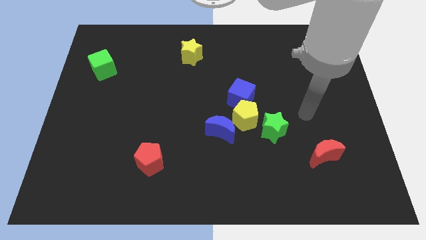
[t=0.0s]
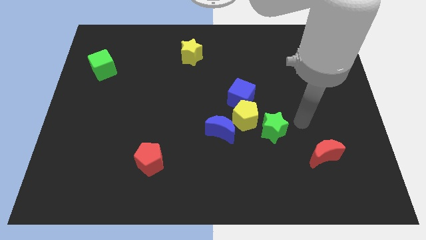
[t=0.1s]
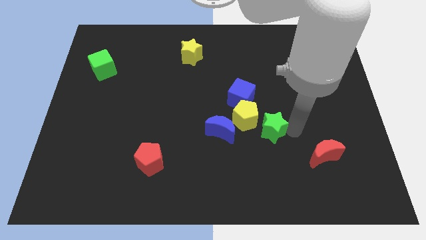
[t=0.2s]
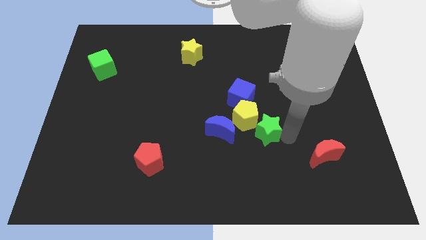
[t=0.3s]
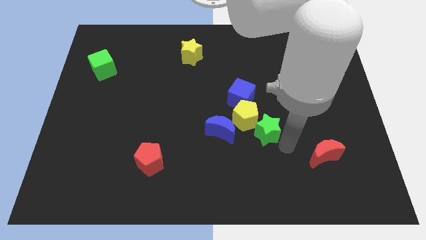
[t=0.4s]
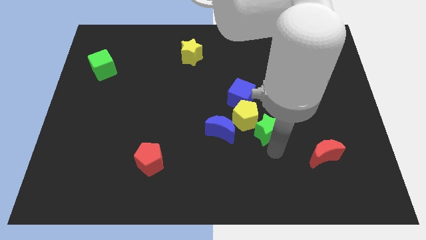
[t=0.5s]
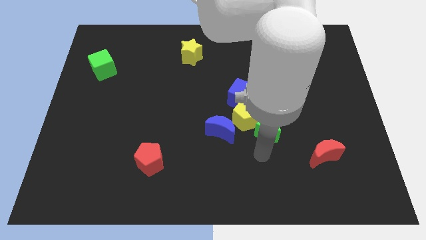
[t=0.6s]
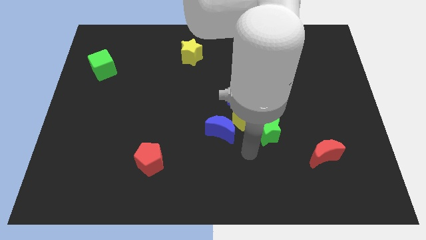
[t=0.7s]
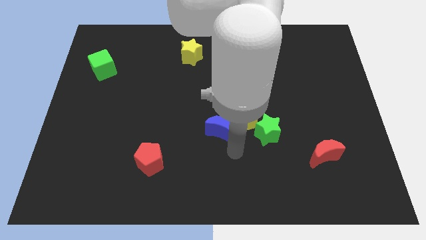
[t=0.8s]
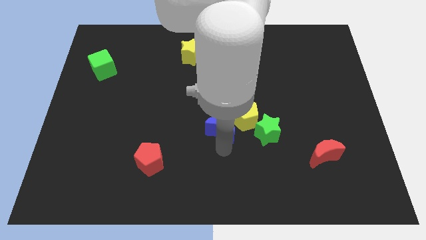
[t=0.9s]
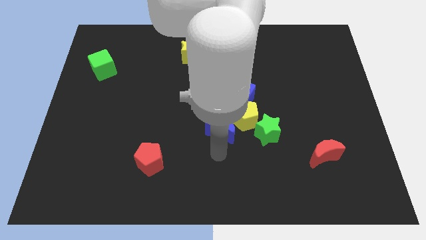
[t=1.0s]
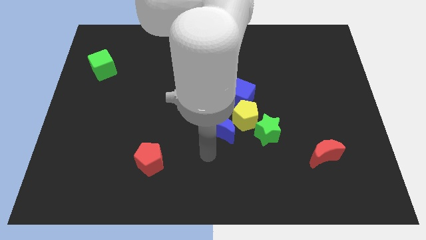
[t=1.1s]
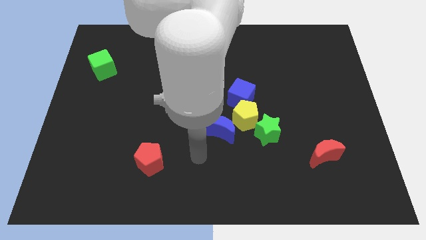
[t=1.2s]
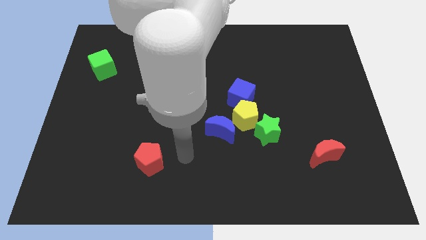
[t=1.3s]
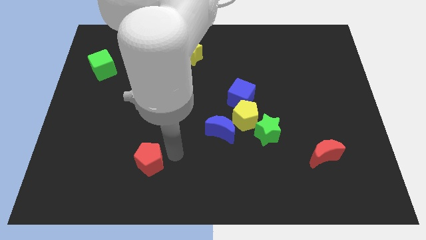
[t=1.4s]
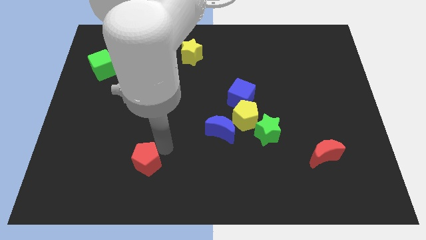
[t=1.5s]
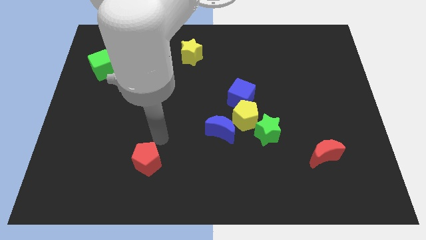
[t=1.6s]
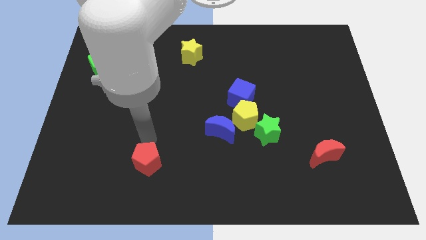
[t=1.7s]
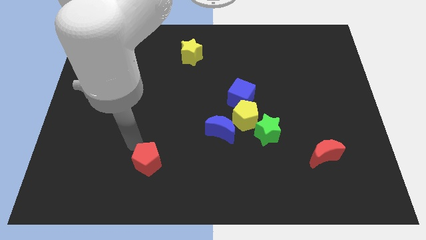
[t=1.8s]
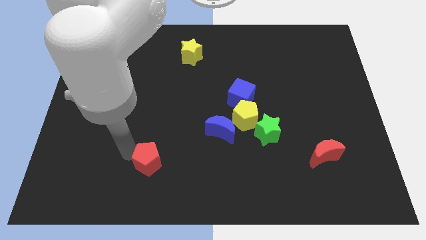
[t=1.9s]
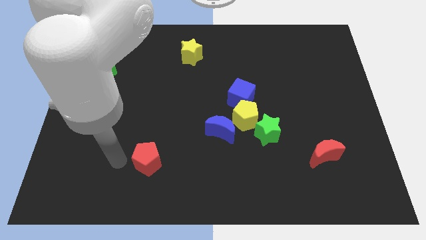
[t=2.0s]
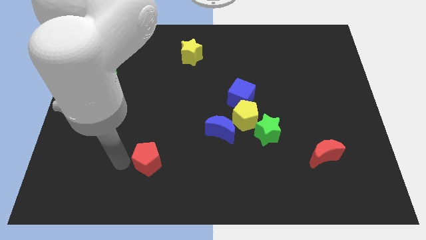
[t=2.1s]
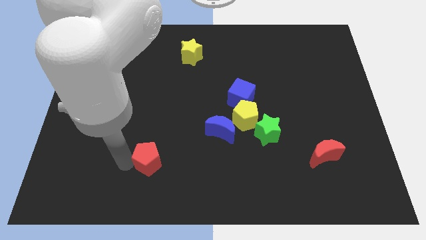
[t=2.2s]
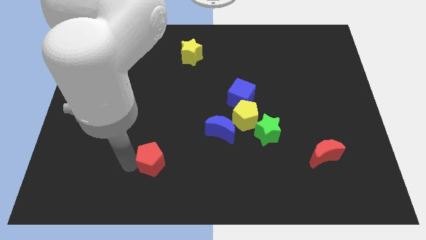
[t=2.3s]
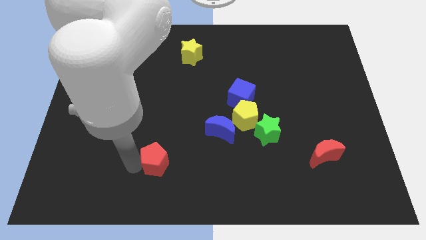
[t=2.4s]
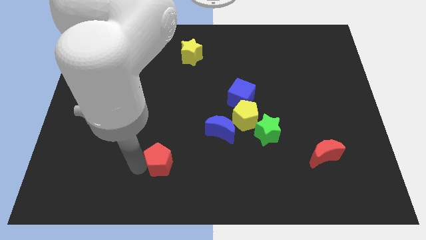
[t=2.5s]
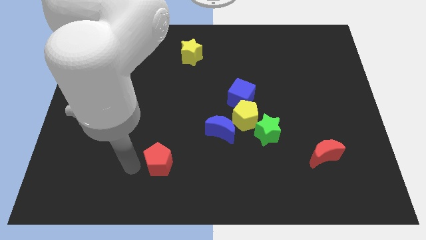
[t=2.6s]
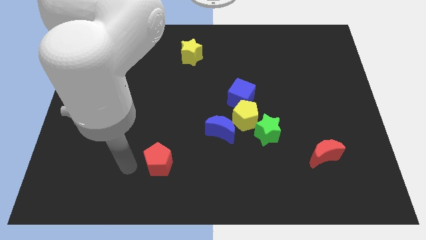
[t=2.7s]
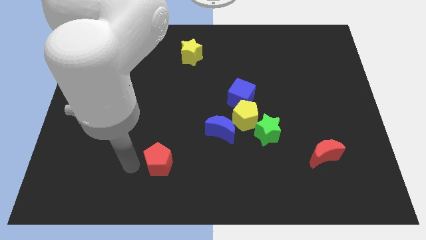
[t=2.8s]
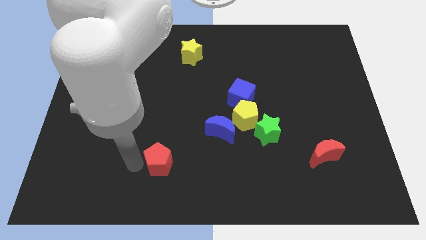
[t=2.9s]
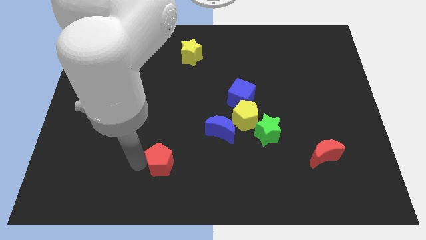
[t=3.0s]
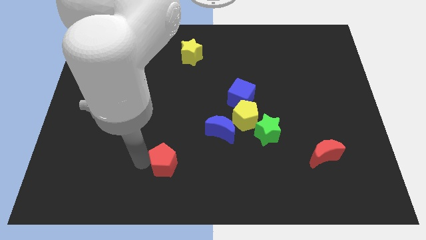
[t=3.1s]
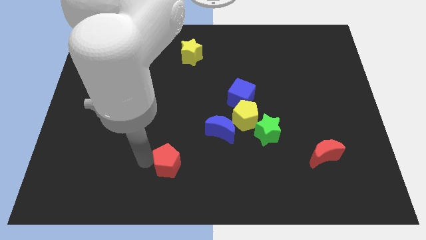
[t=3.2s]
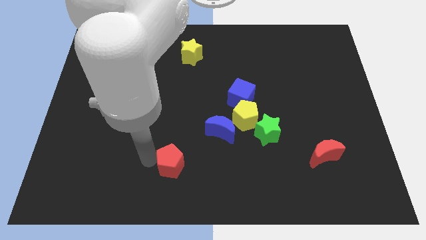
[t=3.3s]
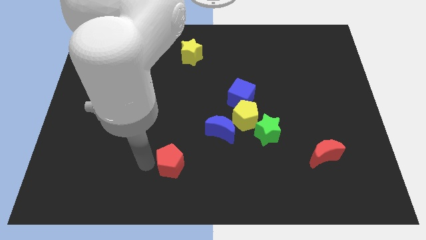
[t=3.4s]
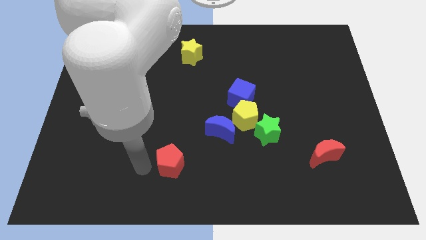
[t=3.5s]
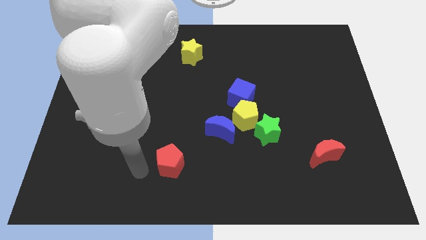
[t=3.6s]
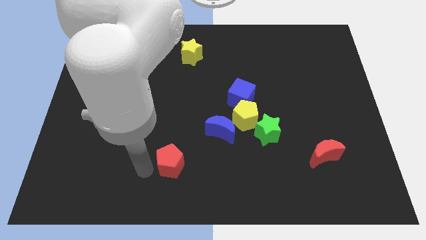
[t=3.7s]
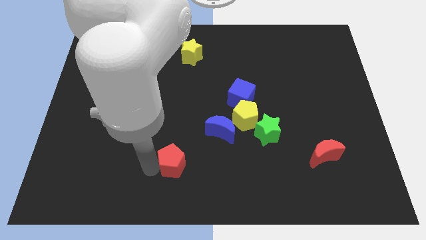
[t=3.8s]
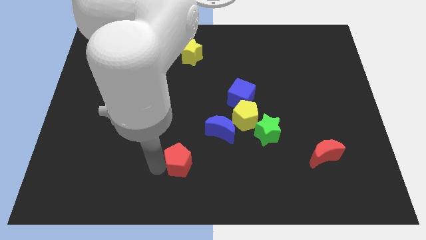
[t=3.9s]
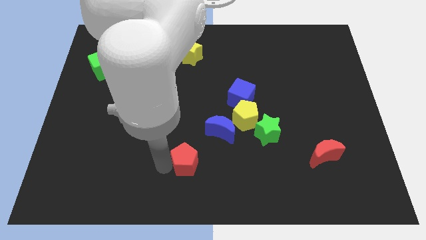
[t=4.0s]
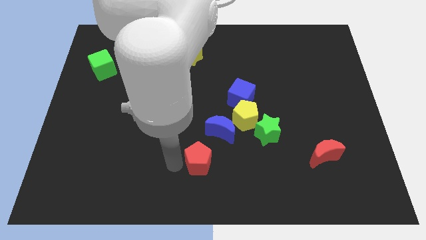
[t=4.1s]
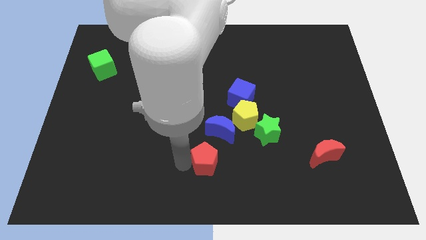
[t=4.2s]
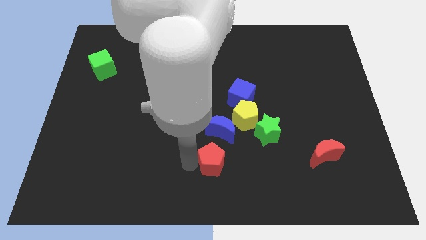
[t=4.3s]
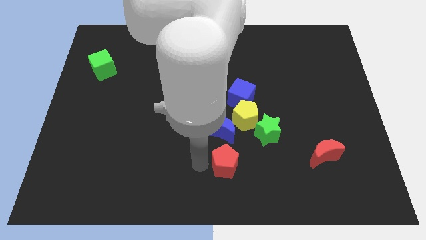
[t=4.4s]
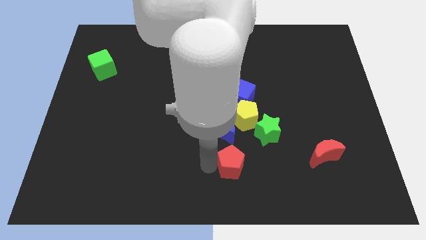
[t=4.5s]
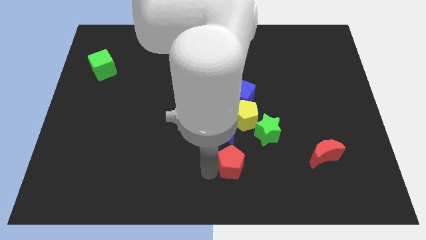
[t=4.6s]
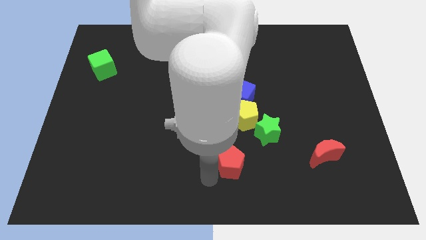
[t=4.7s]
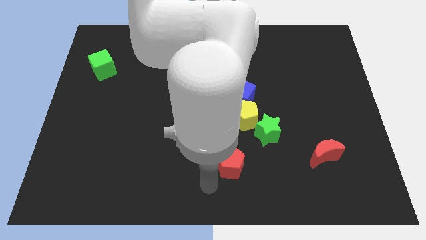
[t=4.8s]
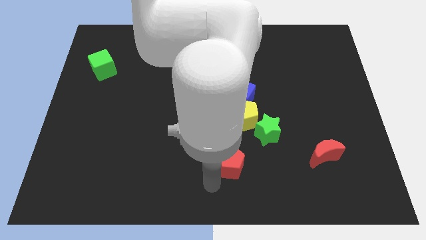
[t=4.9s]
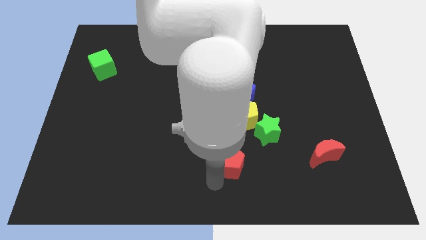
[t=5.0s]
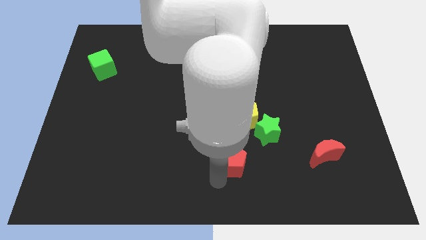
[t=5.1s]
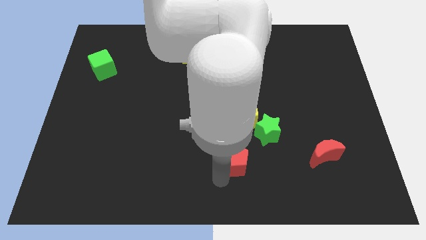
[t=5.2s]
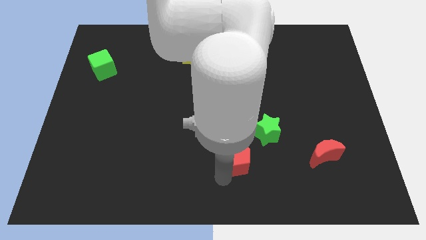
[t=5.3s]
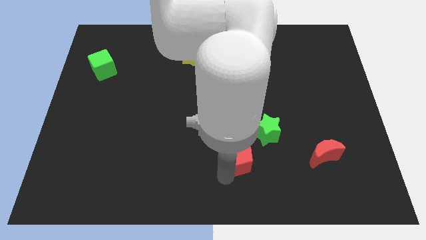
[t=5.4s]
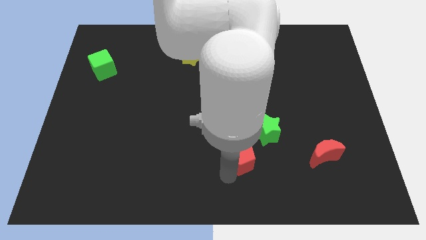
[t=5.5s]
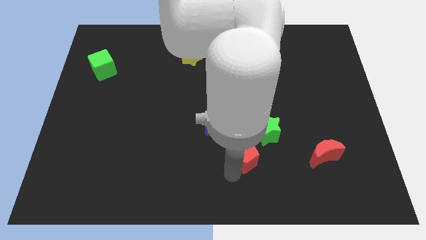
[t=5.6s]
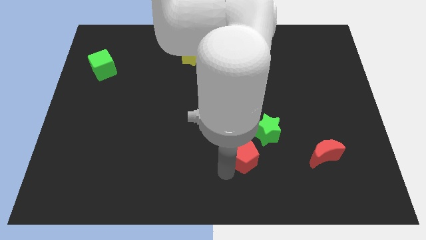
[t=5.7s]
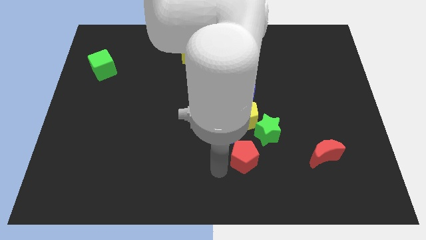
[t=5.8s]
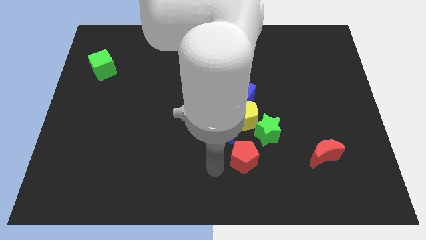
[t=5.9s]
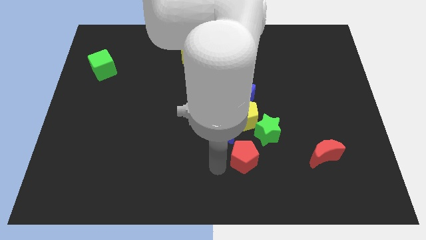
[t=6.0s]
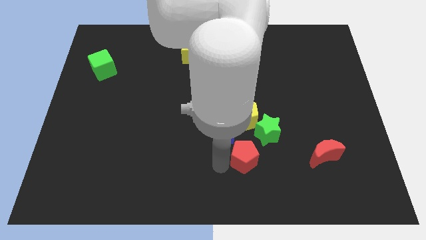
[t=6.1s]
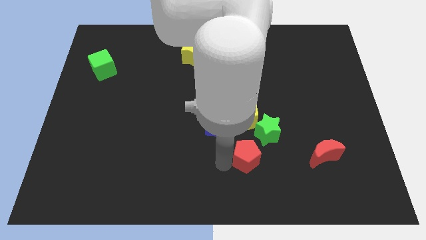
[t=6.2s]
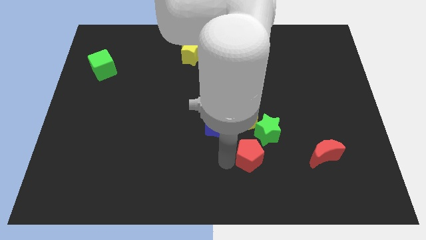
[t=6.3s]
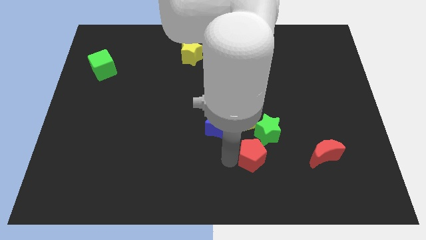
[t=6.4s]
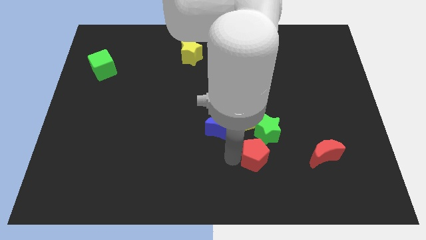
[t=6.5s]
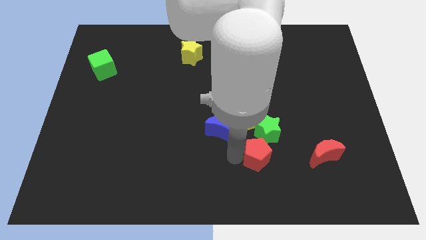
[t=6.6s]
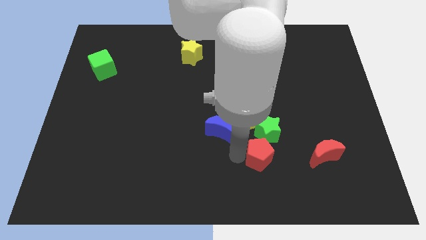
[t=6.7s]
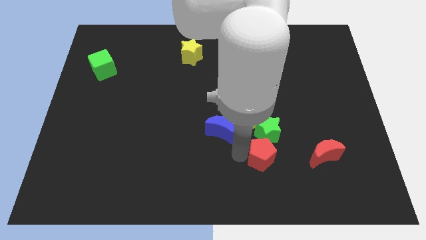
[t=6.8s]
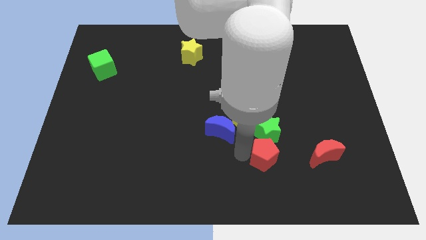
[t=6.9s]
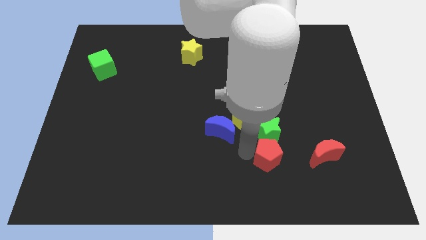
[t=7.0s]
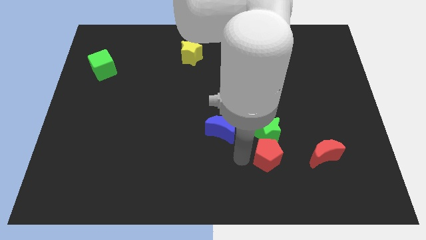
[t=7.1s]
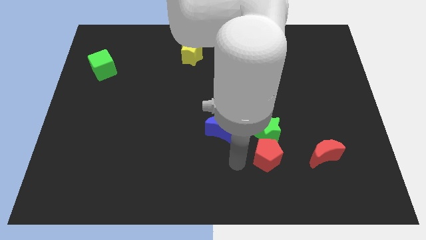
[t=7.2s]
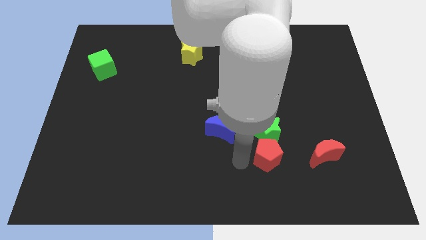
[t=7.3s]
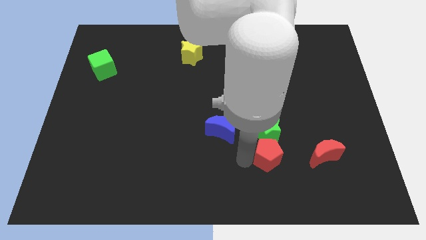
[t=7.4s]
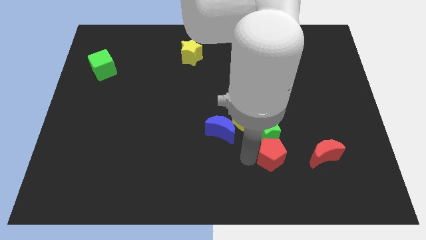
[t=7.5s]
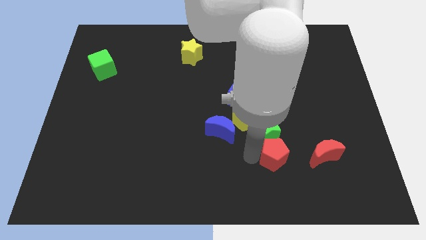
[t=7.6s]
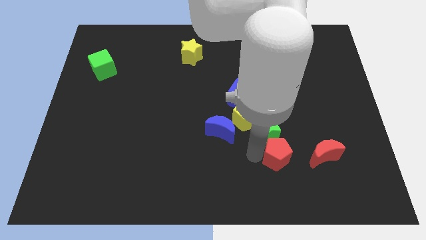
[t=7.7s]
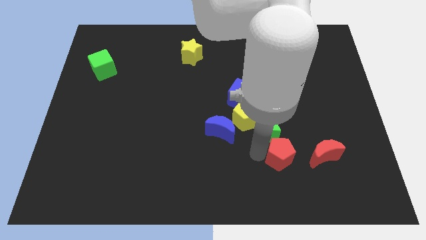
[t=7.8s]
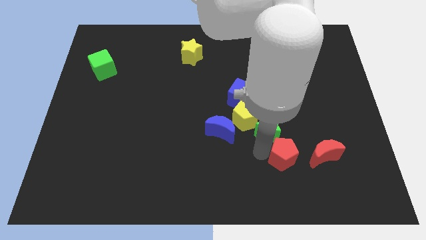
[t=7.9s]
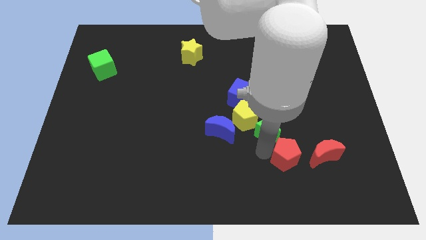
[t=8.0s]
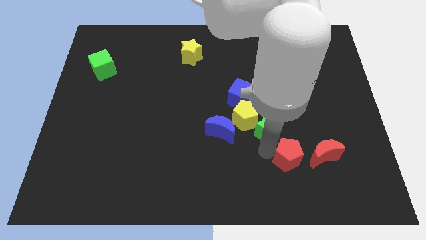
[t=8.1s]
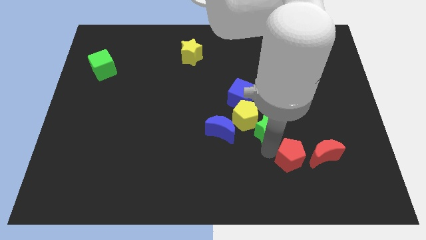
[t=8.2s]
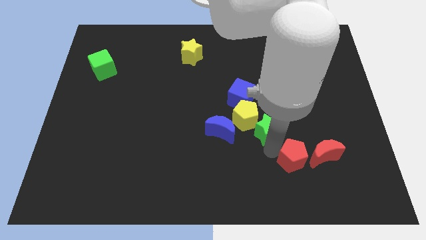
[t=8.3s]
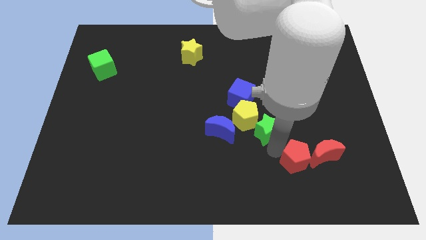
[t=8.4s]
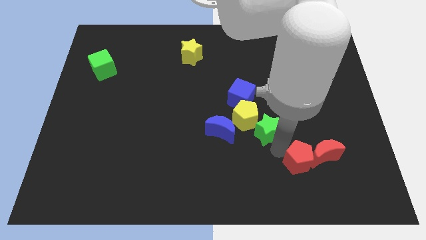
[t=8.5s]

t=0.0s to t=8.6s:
push the red pentagon close to the red moon
